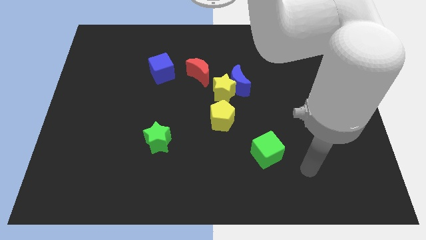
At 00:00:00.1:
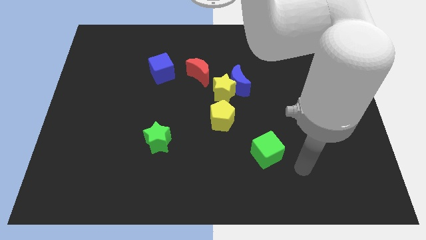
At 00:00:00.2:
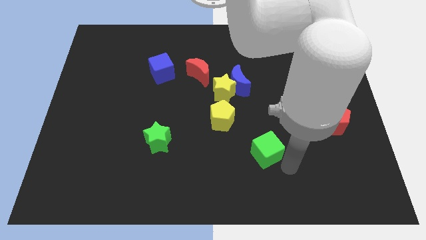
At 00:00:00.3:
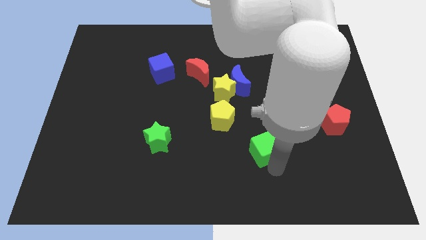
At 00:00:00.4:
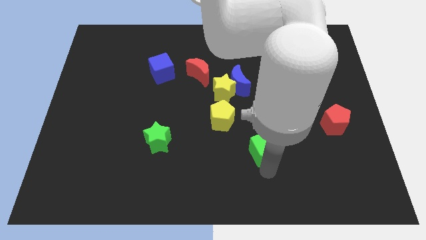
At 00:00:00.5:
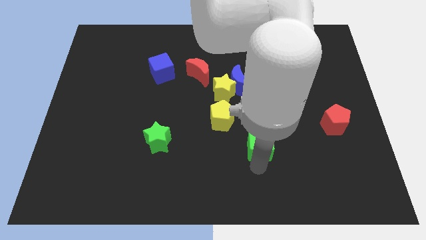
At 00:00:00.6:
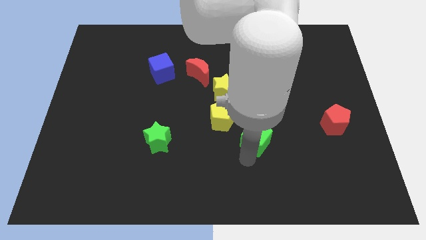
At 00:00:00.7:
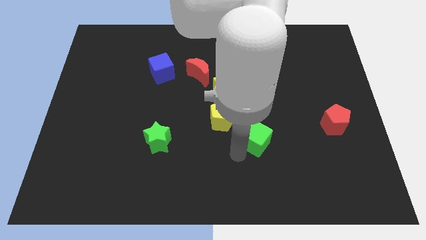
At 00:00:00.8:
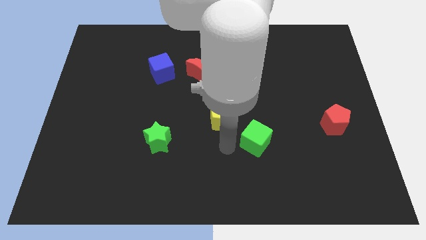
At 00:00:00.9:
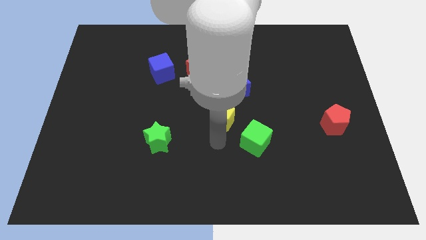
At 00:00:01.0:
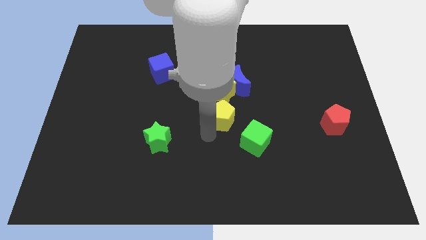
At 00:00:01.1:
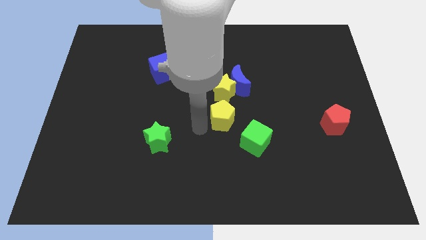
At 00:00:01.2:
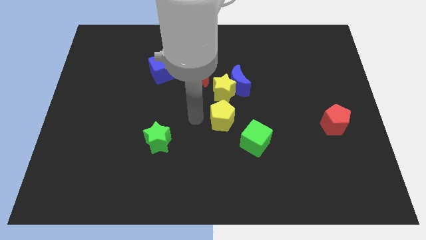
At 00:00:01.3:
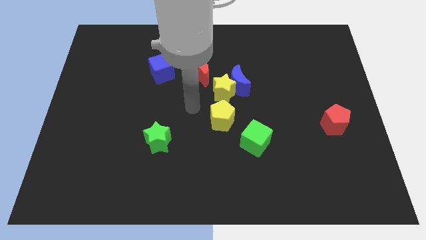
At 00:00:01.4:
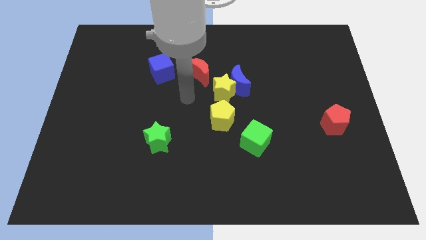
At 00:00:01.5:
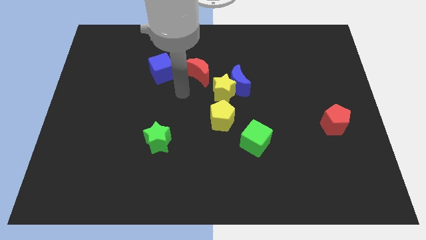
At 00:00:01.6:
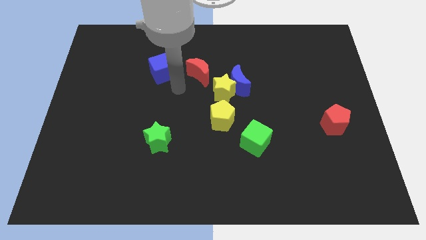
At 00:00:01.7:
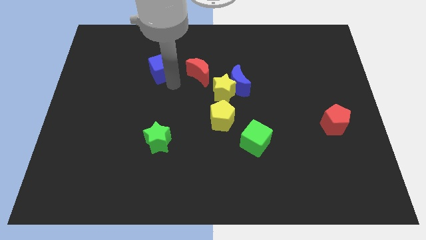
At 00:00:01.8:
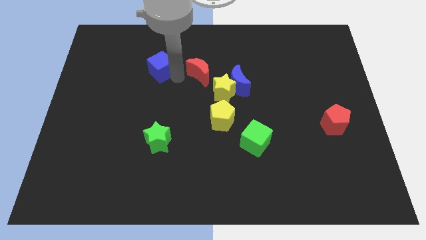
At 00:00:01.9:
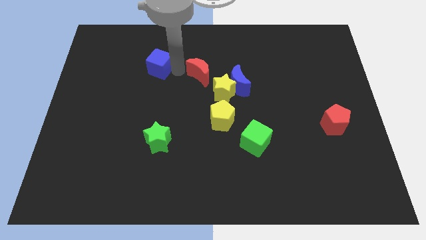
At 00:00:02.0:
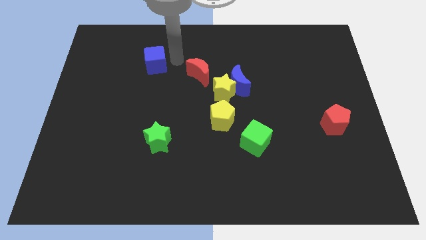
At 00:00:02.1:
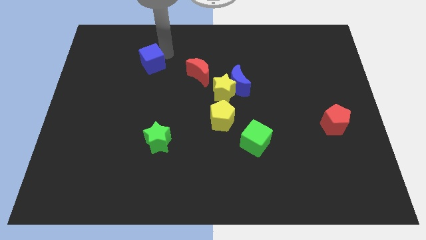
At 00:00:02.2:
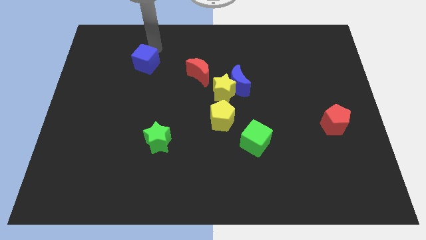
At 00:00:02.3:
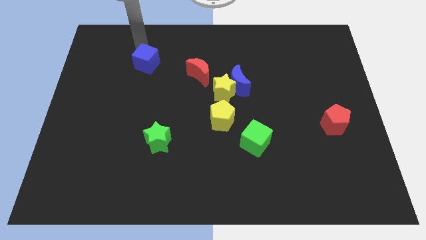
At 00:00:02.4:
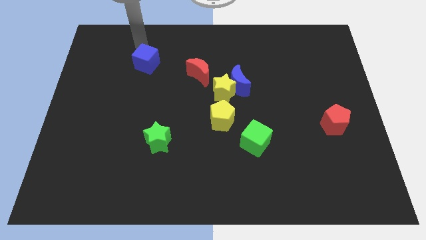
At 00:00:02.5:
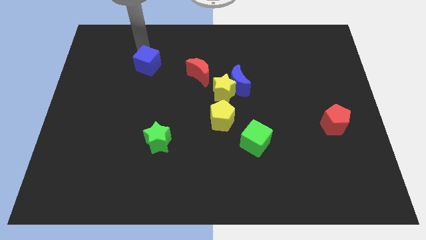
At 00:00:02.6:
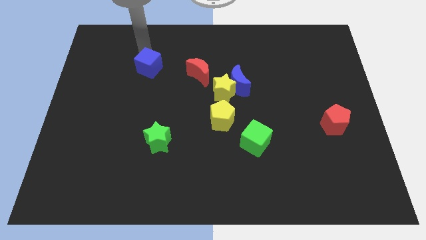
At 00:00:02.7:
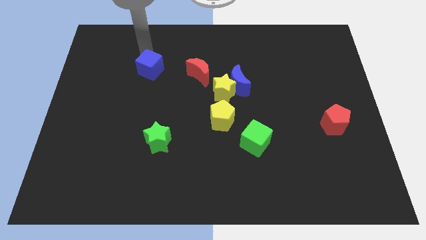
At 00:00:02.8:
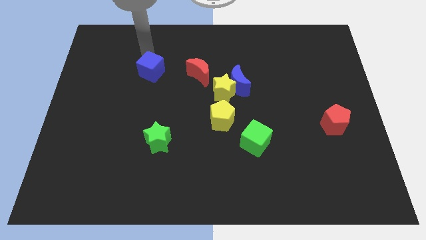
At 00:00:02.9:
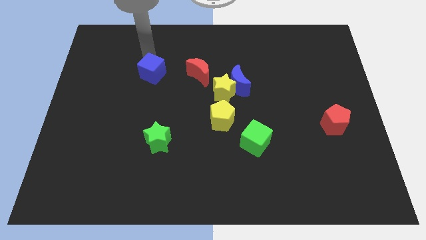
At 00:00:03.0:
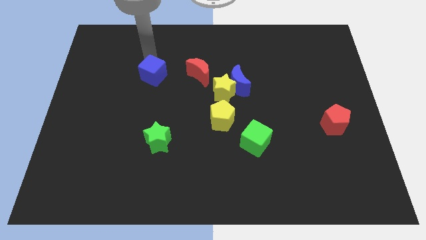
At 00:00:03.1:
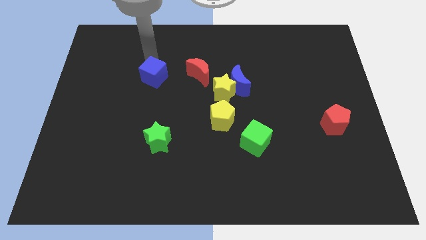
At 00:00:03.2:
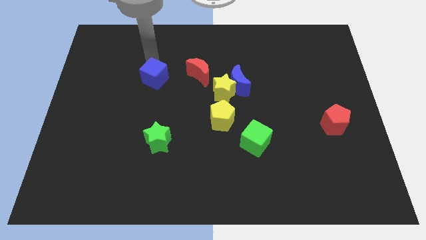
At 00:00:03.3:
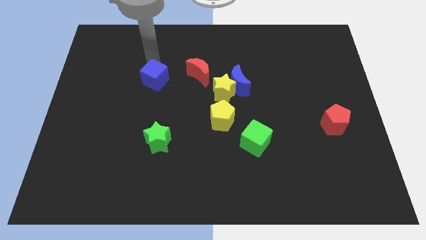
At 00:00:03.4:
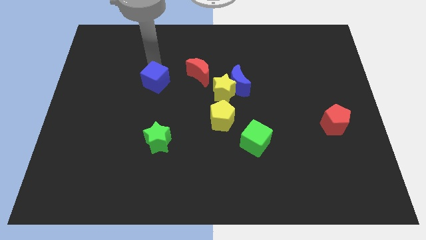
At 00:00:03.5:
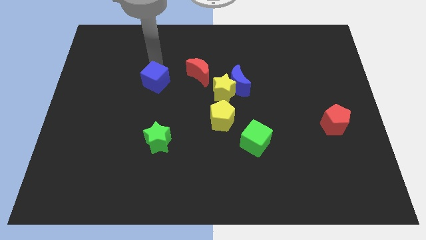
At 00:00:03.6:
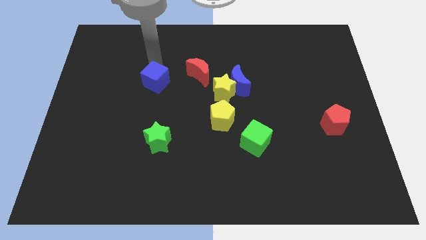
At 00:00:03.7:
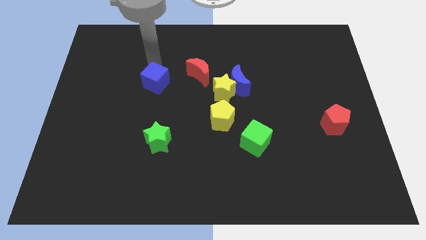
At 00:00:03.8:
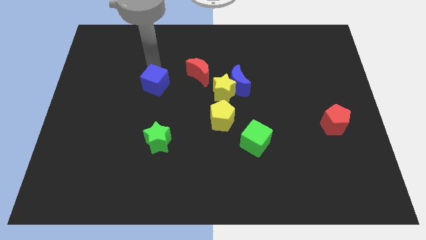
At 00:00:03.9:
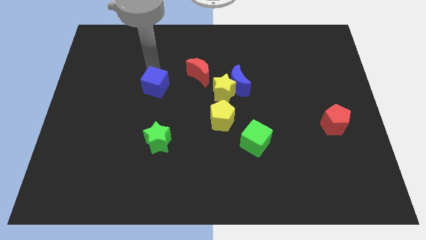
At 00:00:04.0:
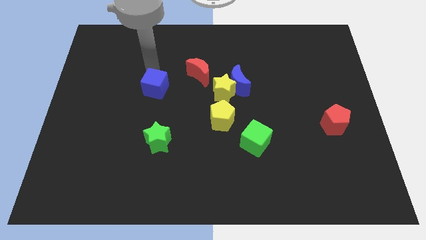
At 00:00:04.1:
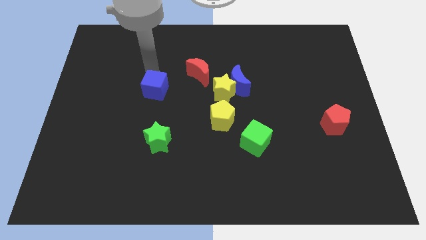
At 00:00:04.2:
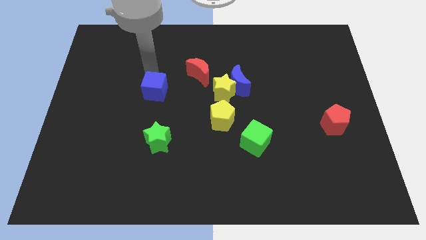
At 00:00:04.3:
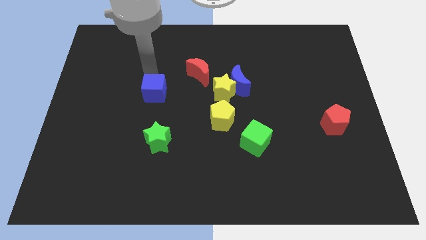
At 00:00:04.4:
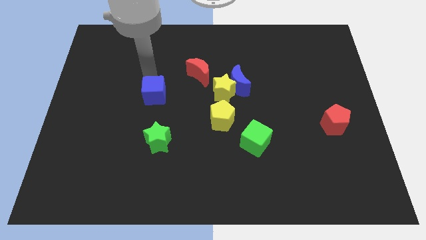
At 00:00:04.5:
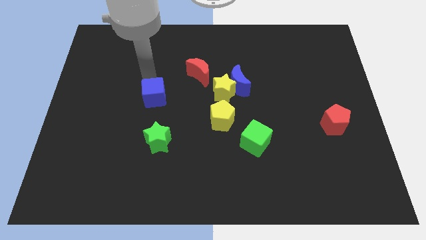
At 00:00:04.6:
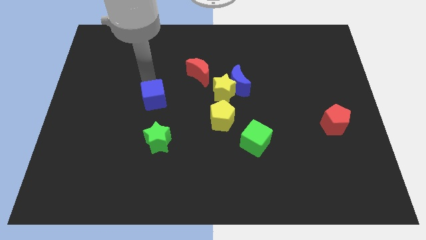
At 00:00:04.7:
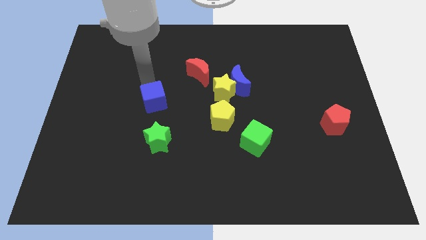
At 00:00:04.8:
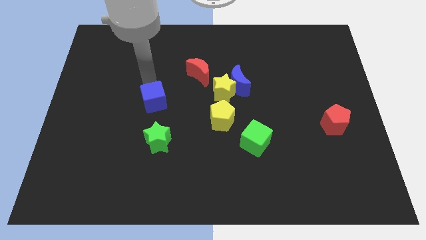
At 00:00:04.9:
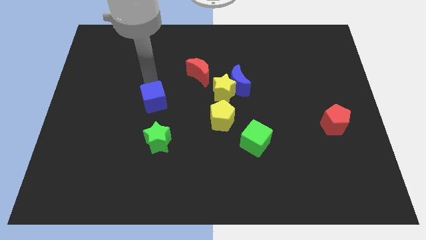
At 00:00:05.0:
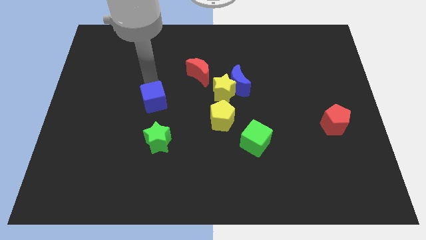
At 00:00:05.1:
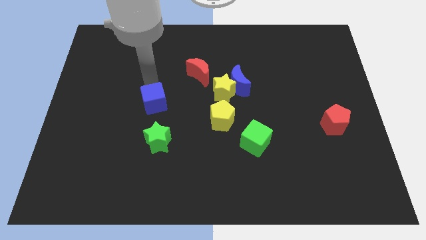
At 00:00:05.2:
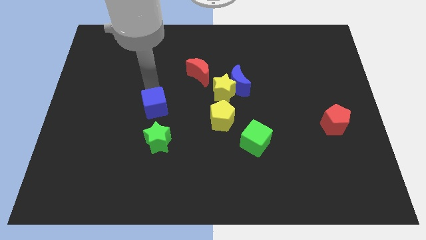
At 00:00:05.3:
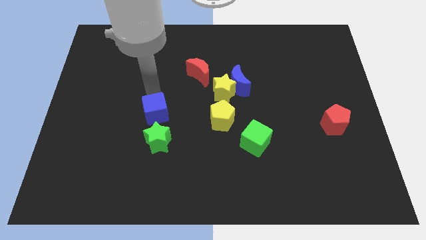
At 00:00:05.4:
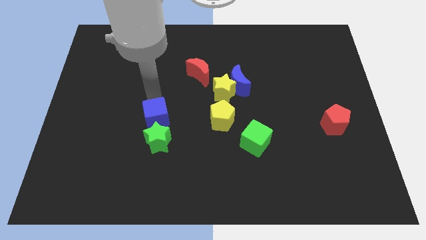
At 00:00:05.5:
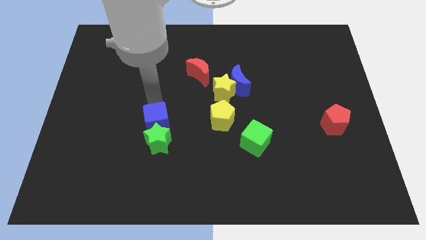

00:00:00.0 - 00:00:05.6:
slide the blue cube to the green star
